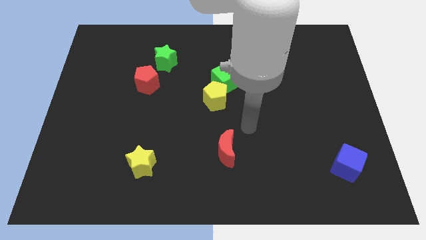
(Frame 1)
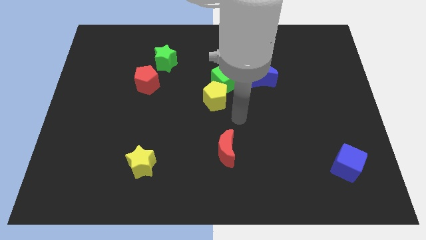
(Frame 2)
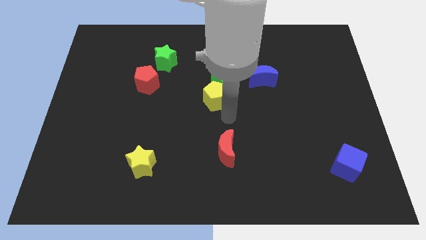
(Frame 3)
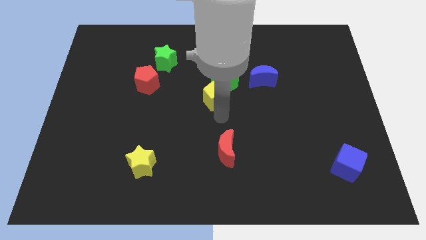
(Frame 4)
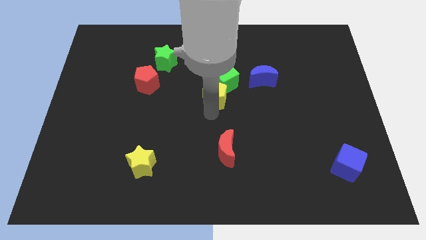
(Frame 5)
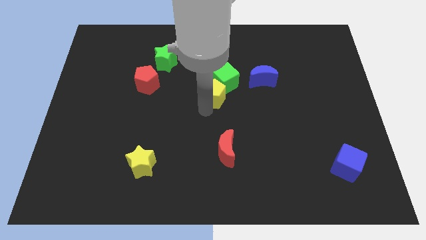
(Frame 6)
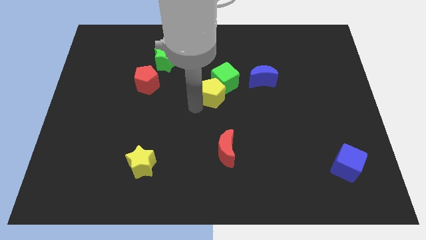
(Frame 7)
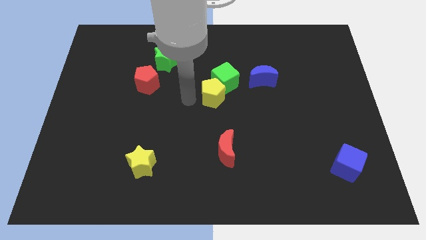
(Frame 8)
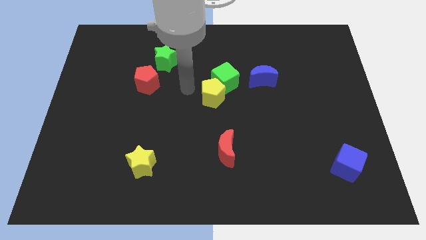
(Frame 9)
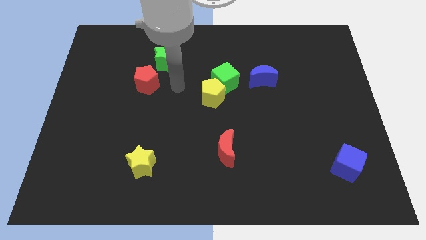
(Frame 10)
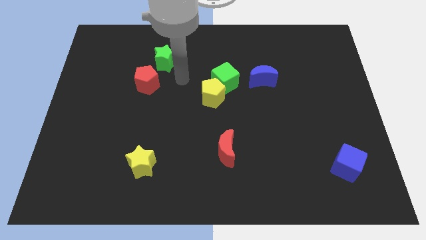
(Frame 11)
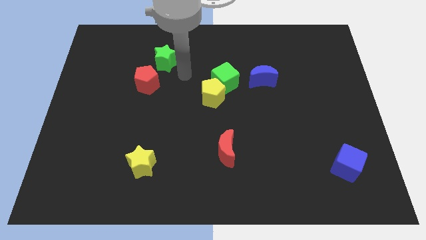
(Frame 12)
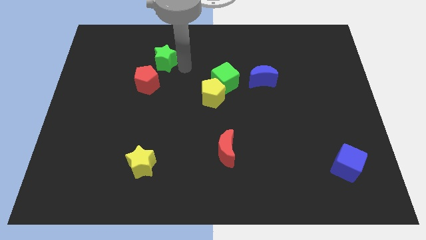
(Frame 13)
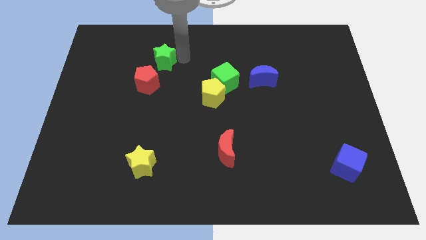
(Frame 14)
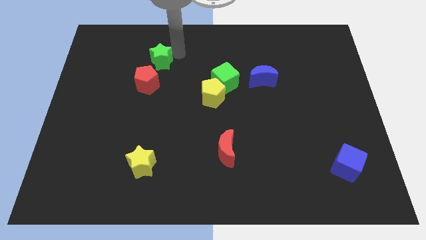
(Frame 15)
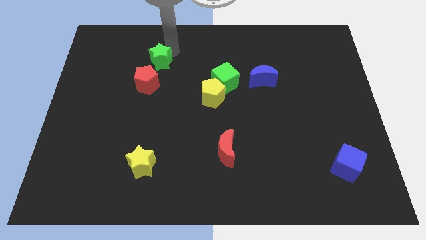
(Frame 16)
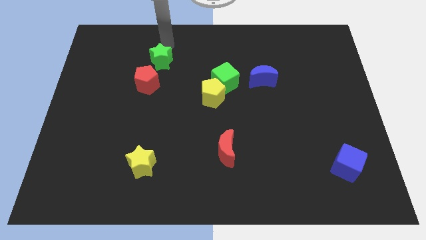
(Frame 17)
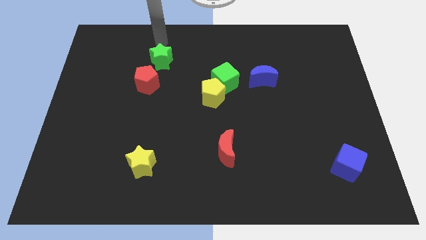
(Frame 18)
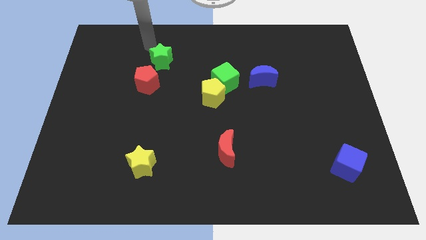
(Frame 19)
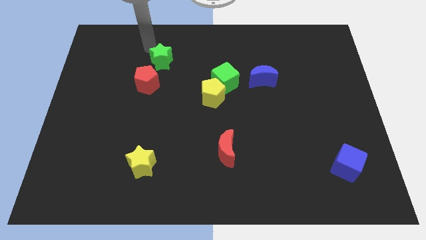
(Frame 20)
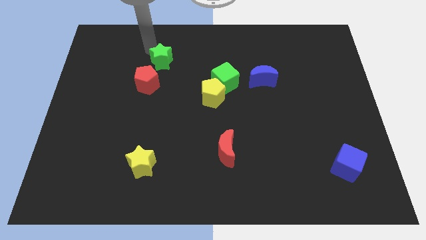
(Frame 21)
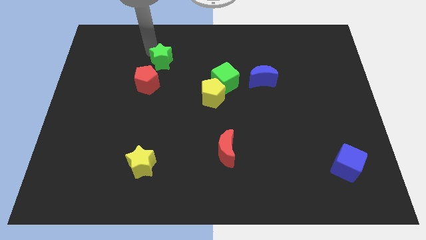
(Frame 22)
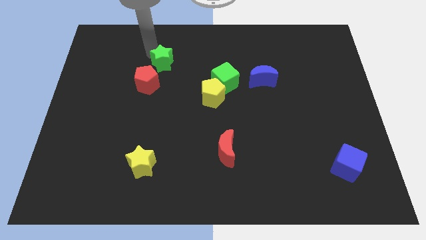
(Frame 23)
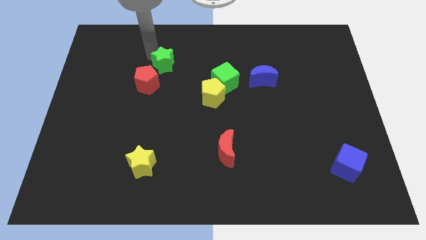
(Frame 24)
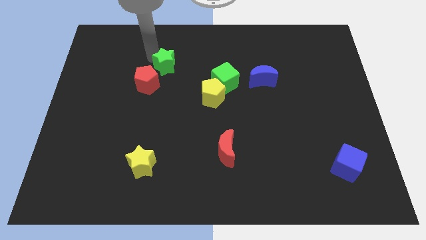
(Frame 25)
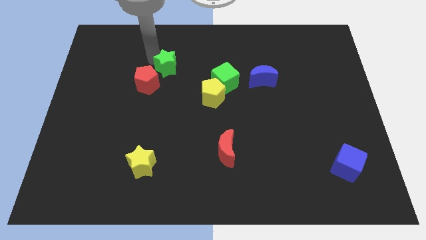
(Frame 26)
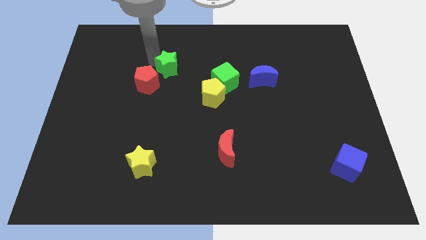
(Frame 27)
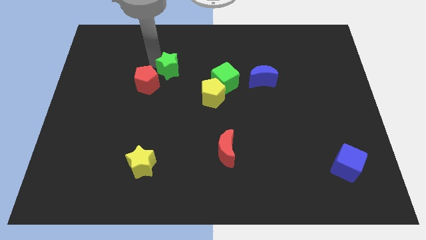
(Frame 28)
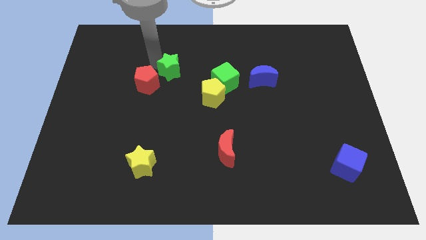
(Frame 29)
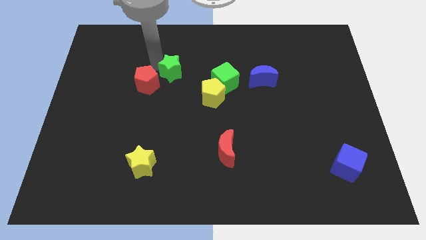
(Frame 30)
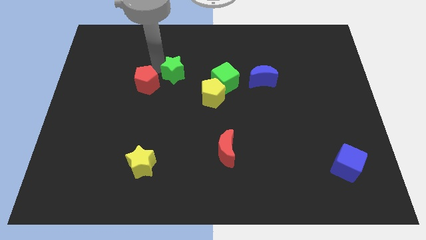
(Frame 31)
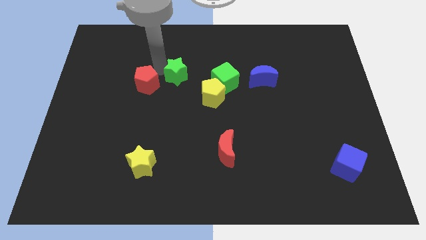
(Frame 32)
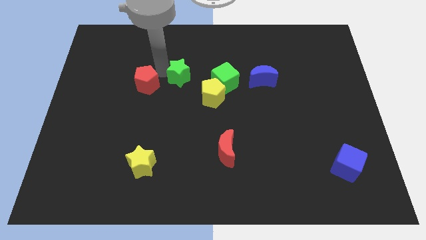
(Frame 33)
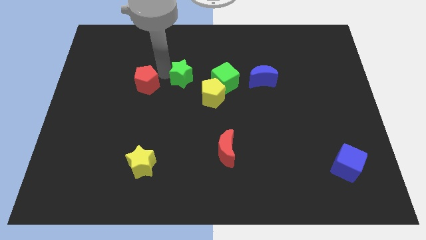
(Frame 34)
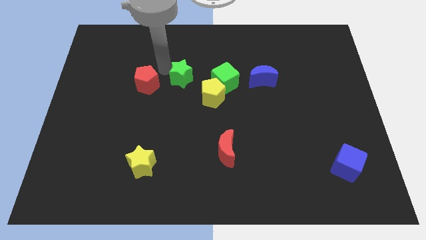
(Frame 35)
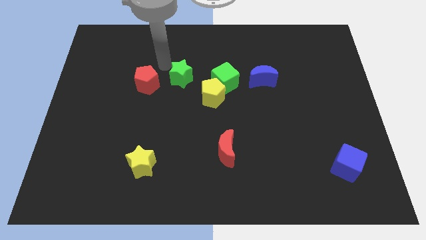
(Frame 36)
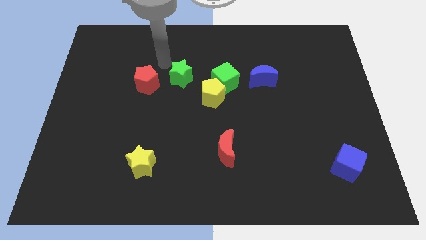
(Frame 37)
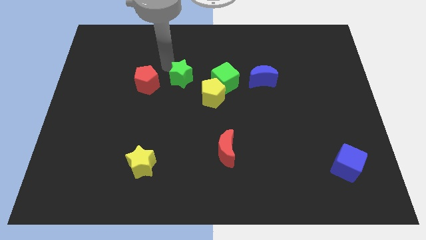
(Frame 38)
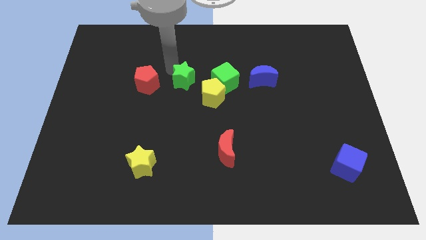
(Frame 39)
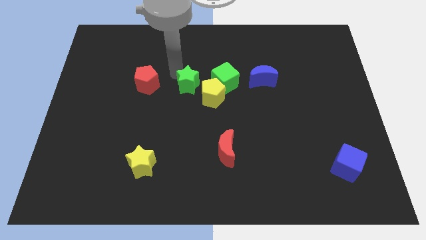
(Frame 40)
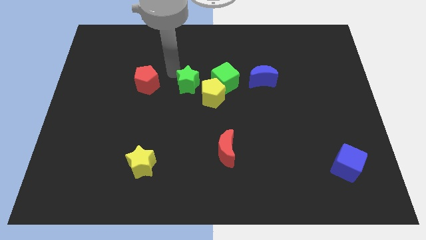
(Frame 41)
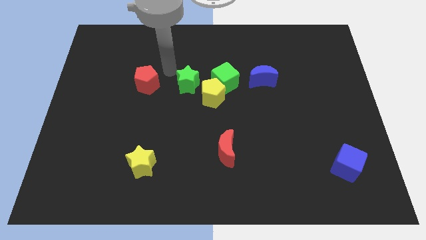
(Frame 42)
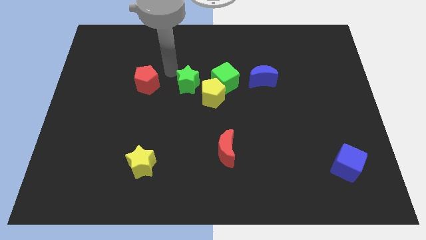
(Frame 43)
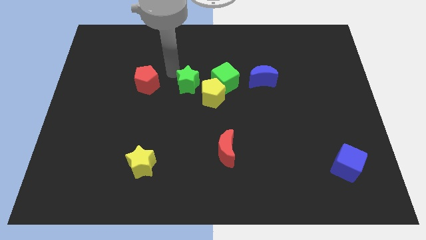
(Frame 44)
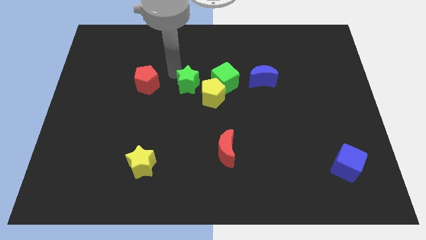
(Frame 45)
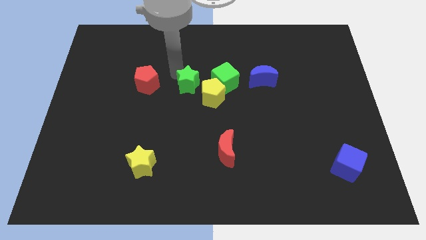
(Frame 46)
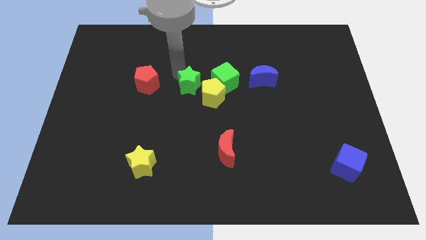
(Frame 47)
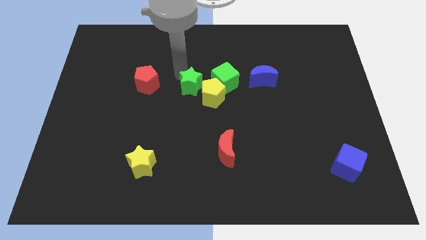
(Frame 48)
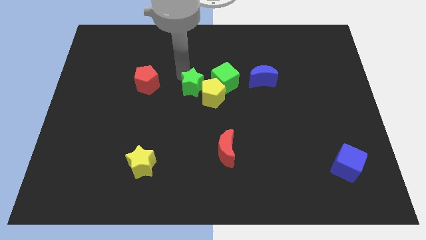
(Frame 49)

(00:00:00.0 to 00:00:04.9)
push the green star towards the yellow pentagon

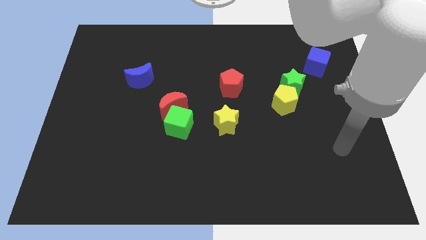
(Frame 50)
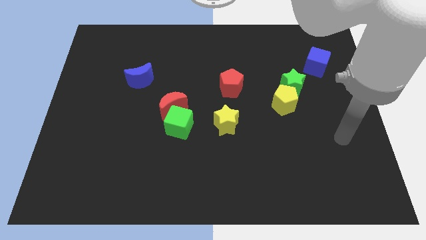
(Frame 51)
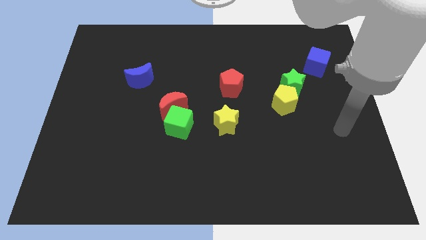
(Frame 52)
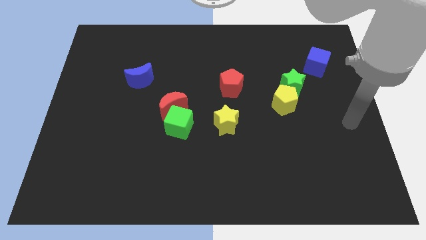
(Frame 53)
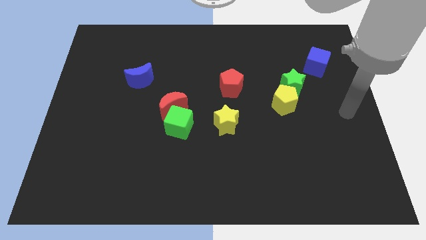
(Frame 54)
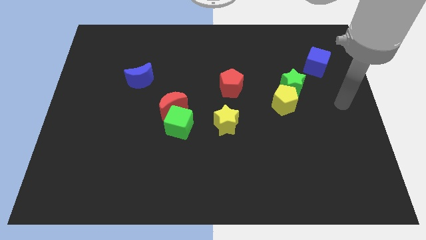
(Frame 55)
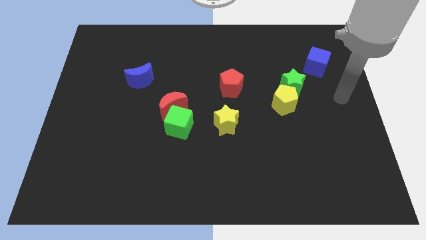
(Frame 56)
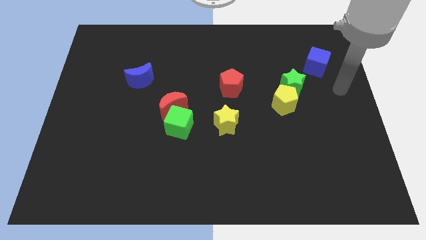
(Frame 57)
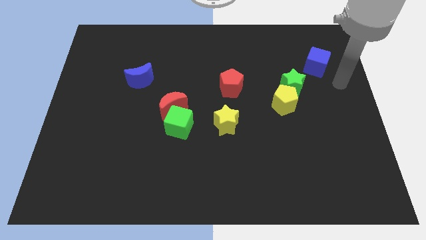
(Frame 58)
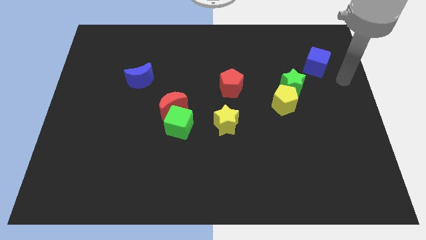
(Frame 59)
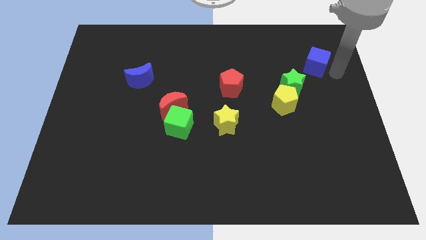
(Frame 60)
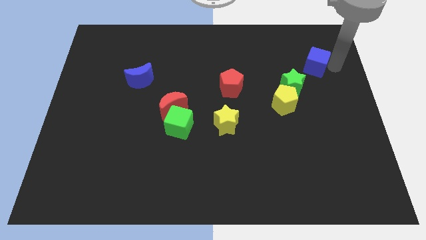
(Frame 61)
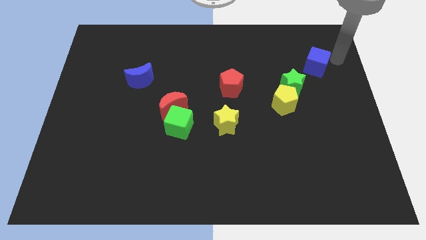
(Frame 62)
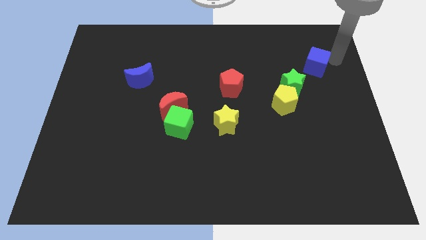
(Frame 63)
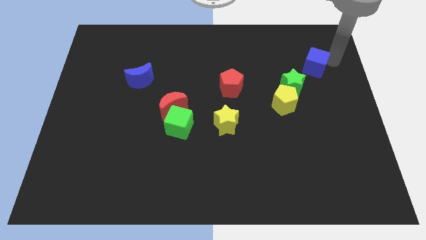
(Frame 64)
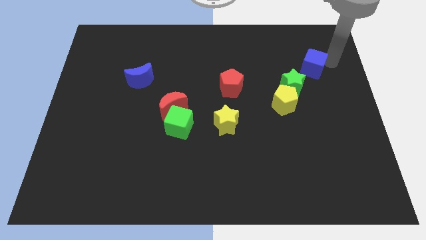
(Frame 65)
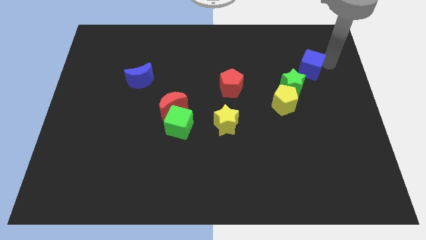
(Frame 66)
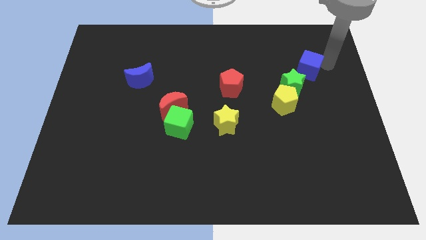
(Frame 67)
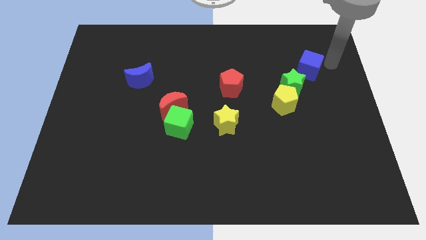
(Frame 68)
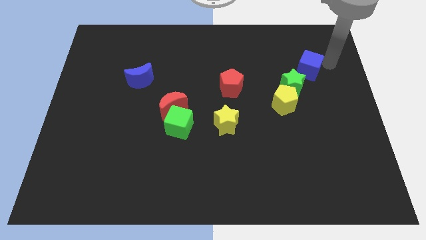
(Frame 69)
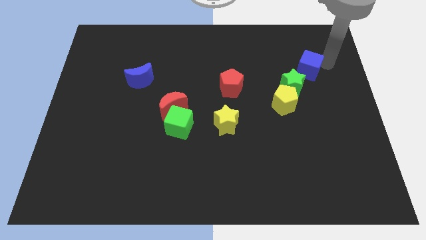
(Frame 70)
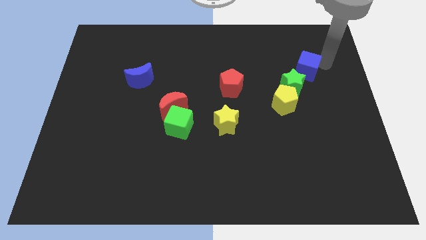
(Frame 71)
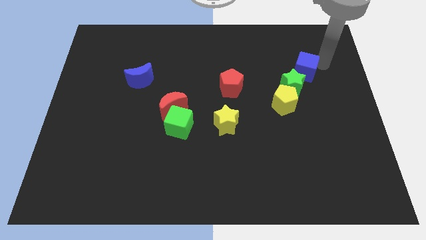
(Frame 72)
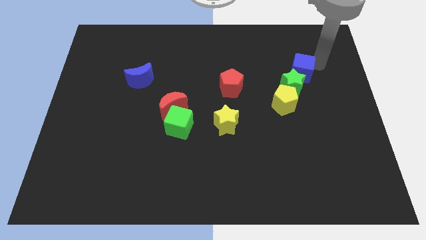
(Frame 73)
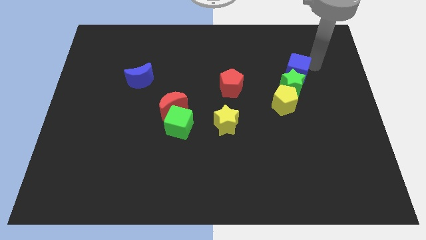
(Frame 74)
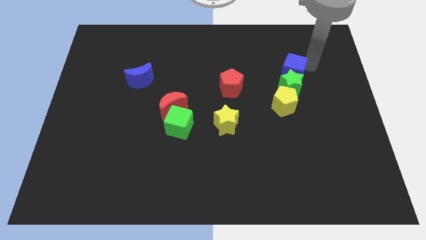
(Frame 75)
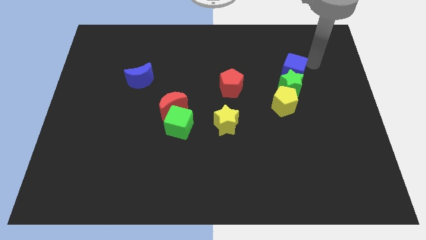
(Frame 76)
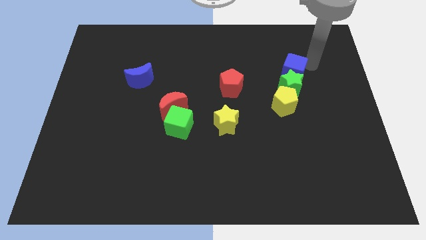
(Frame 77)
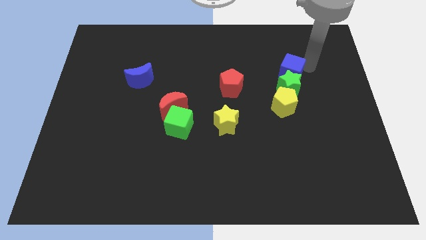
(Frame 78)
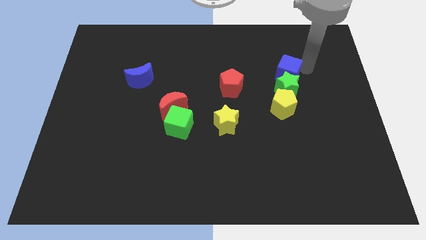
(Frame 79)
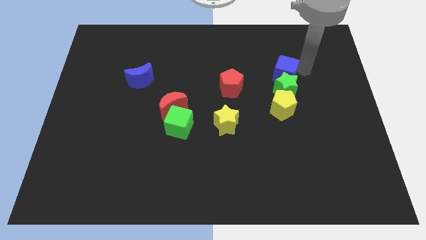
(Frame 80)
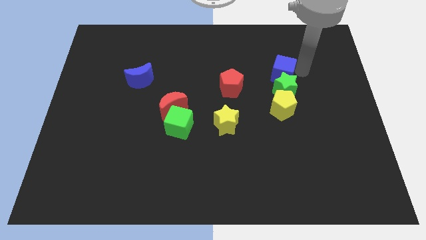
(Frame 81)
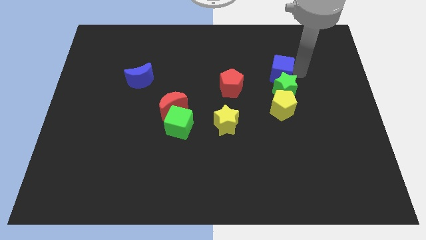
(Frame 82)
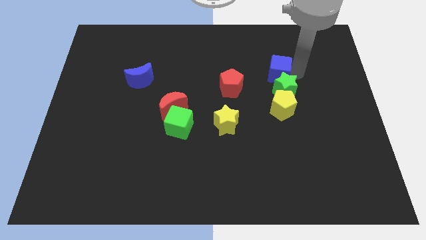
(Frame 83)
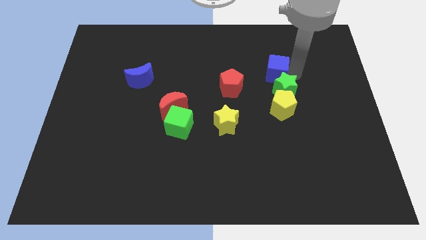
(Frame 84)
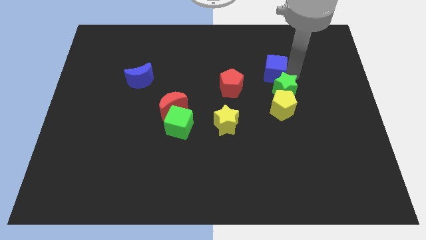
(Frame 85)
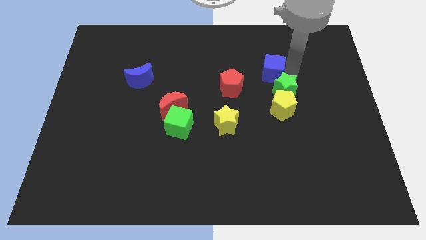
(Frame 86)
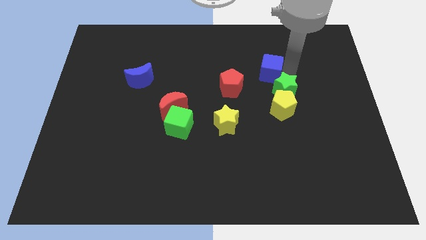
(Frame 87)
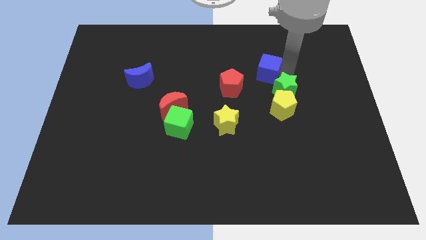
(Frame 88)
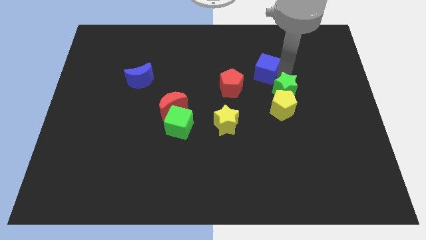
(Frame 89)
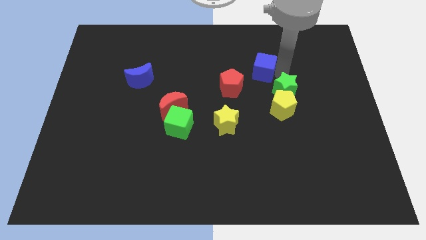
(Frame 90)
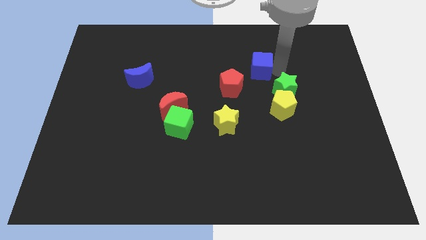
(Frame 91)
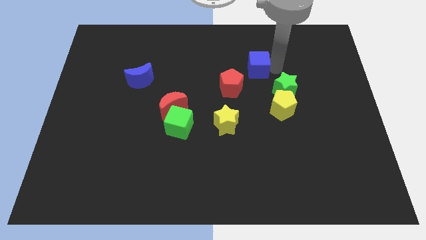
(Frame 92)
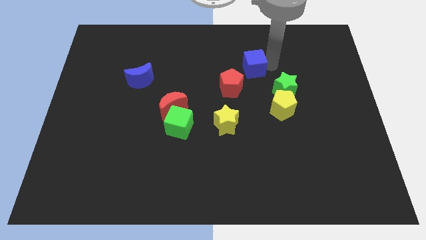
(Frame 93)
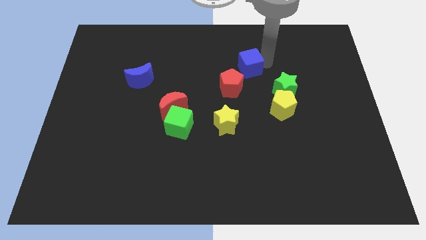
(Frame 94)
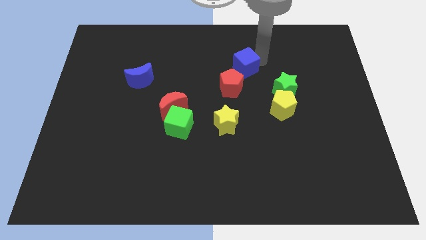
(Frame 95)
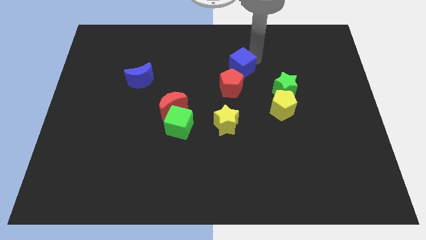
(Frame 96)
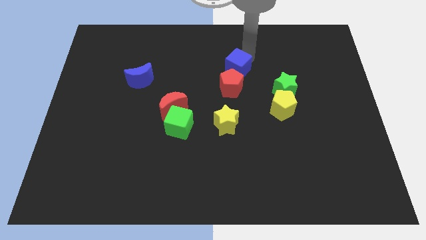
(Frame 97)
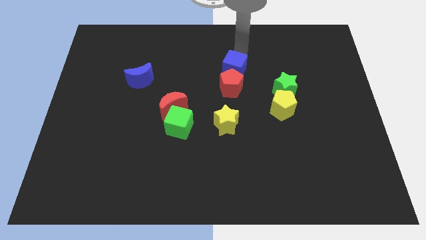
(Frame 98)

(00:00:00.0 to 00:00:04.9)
push the blue cube towards the red pentagon
